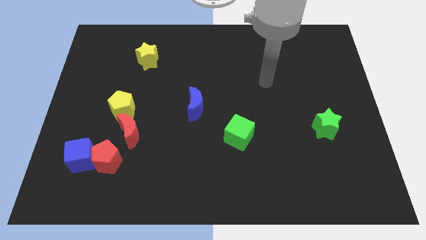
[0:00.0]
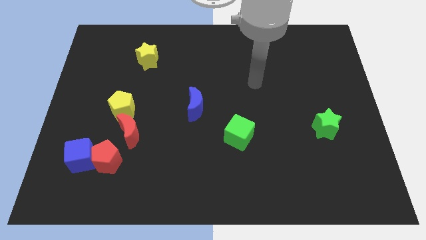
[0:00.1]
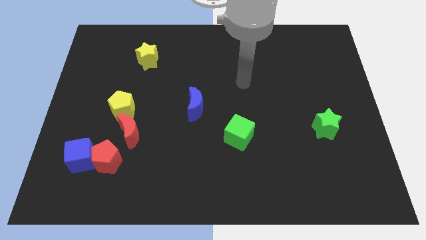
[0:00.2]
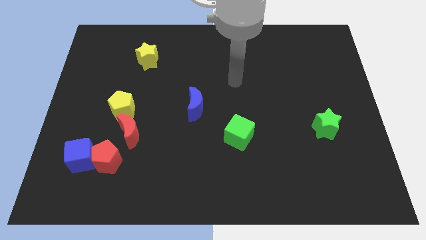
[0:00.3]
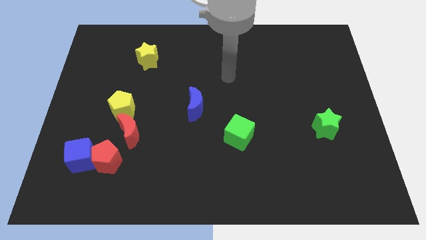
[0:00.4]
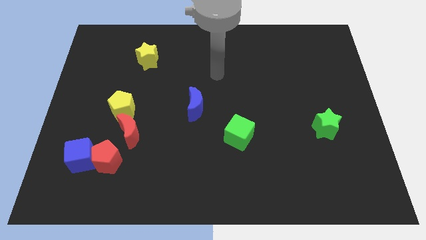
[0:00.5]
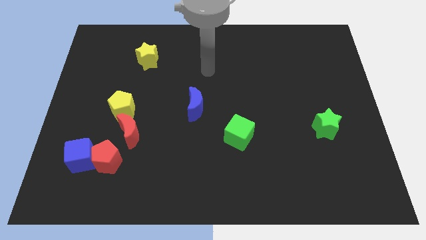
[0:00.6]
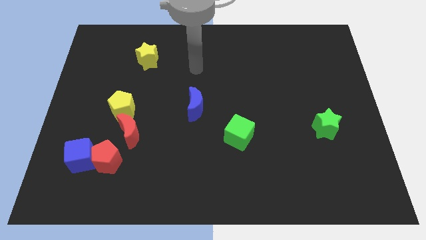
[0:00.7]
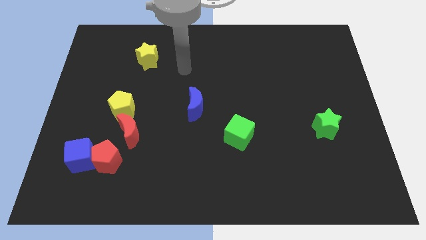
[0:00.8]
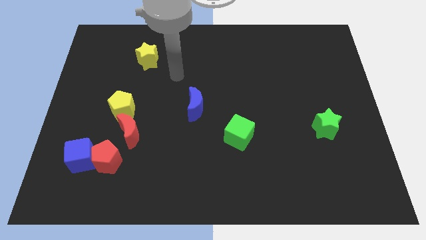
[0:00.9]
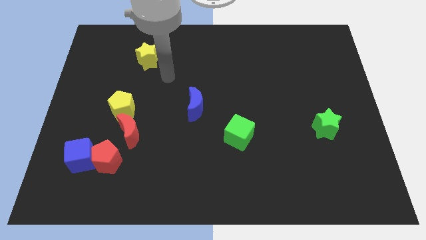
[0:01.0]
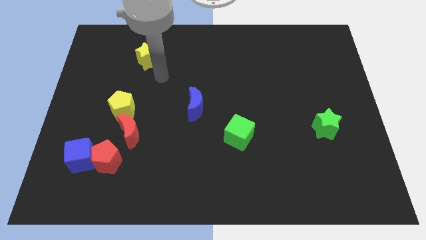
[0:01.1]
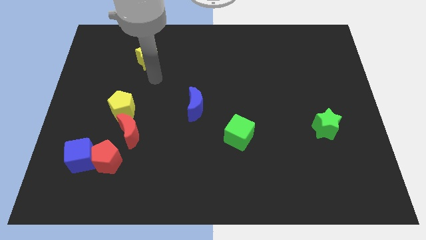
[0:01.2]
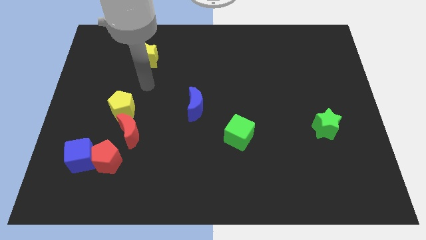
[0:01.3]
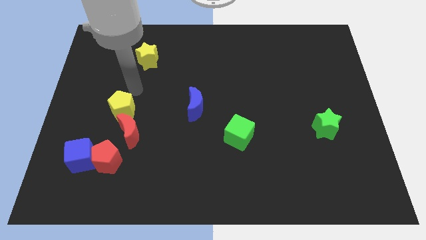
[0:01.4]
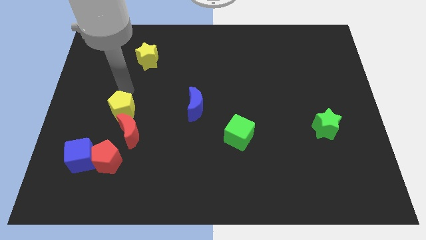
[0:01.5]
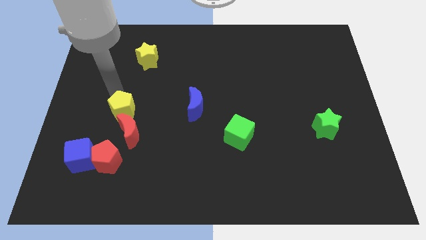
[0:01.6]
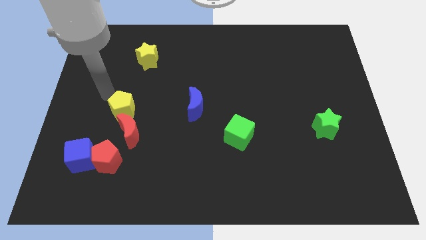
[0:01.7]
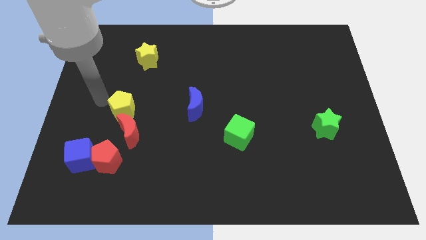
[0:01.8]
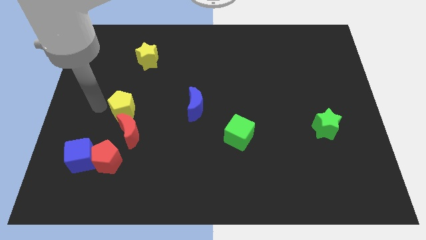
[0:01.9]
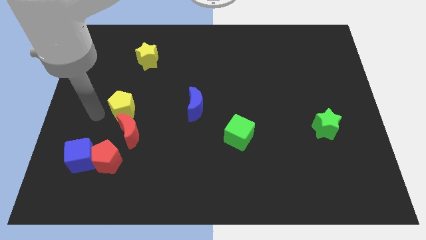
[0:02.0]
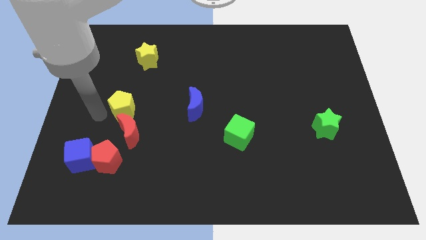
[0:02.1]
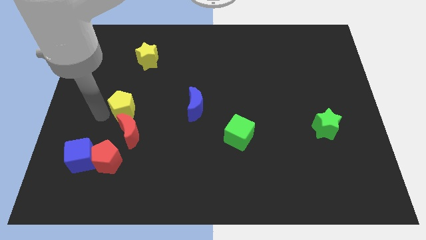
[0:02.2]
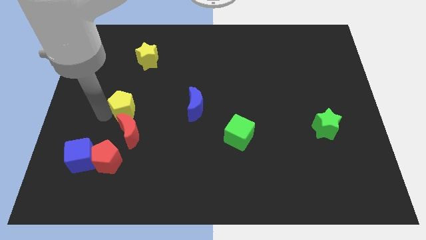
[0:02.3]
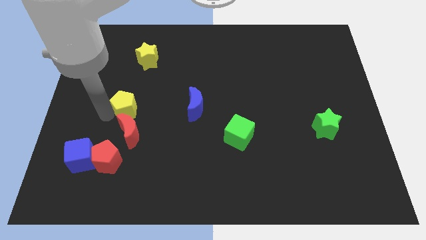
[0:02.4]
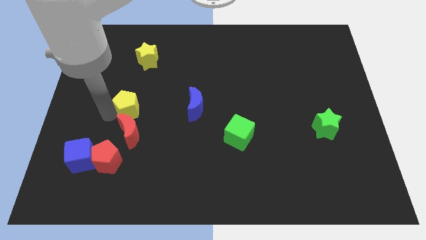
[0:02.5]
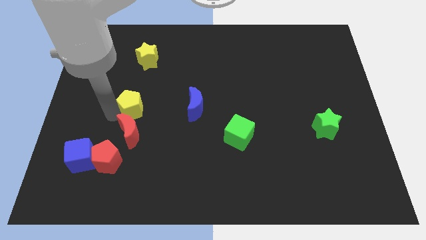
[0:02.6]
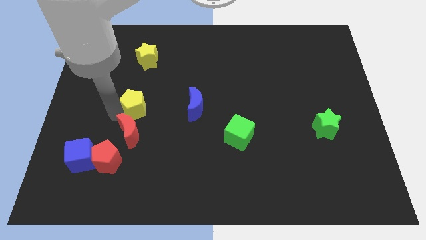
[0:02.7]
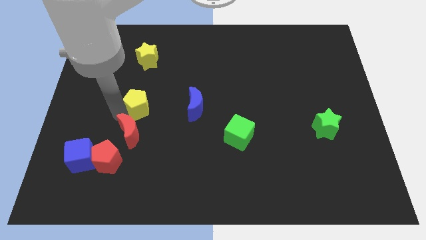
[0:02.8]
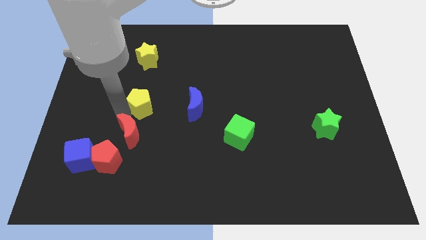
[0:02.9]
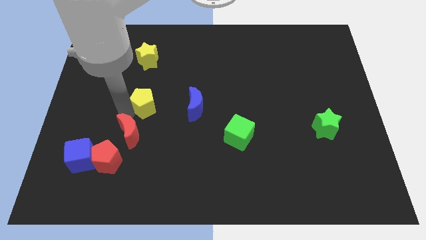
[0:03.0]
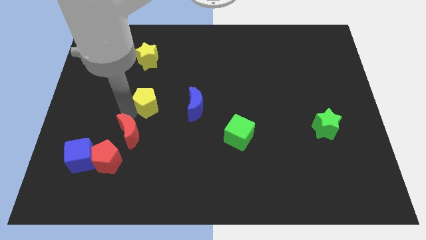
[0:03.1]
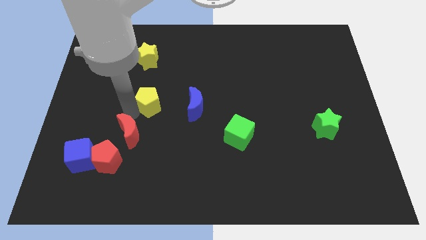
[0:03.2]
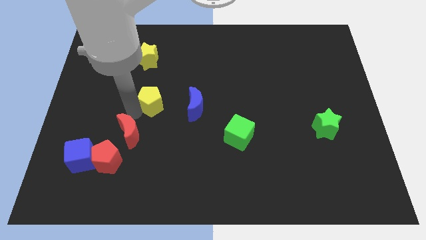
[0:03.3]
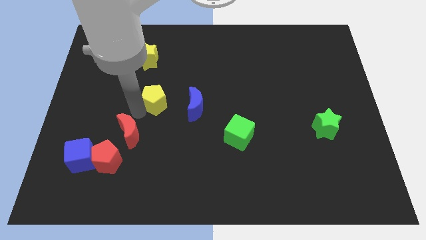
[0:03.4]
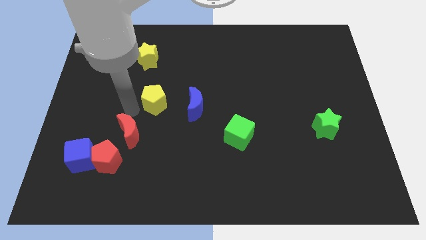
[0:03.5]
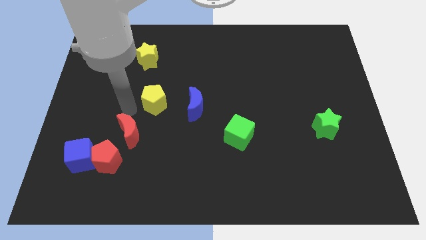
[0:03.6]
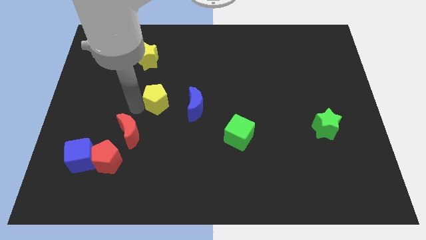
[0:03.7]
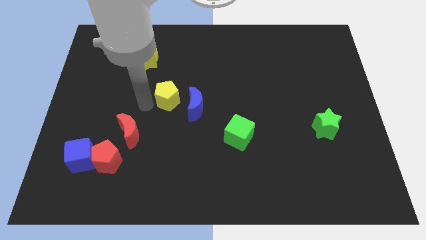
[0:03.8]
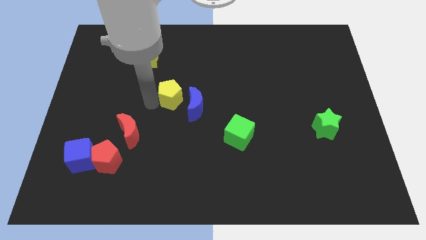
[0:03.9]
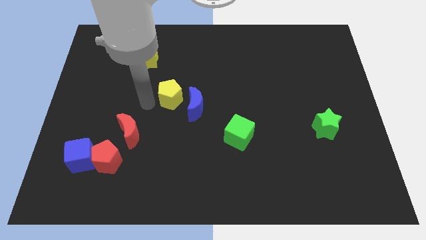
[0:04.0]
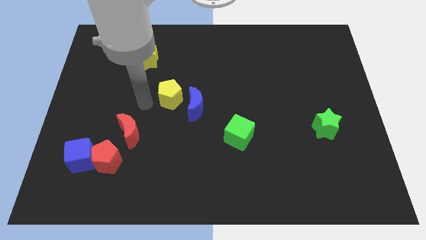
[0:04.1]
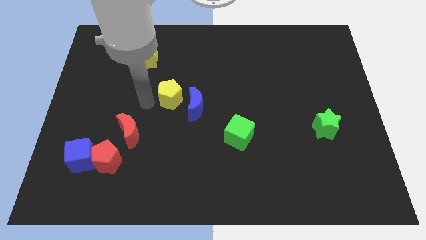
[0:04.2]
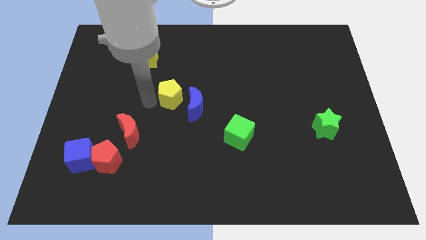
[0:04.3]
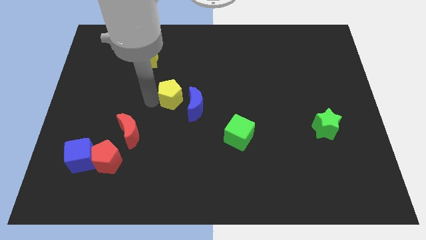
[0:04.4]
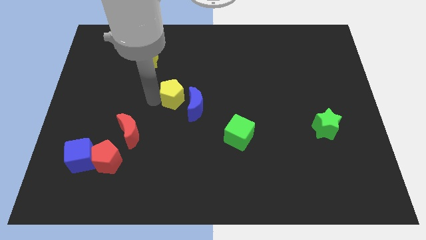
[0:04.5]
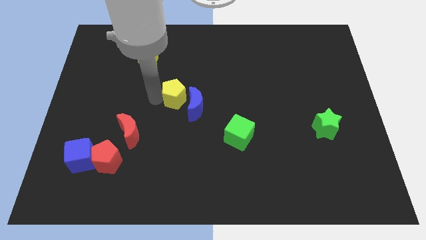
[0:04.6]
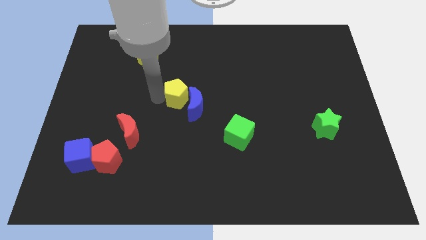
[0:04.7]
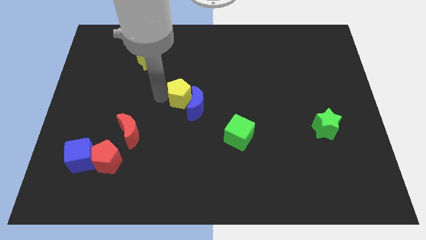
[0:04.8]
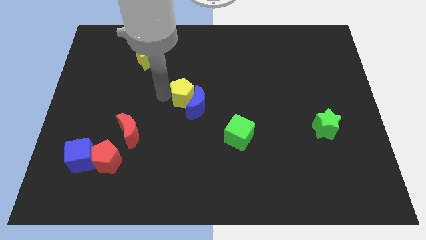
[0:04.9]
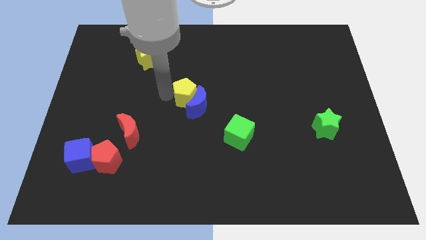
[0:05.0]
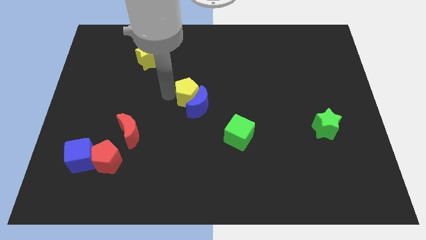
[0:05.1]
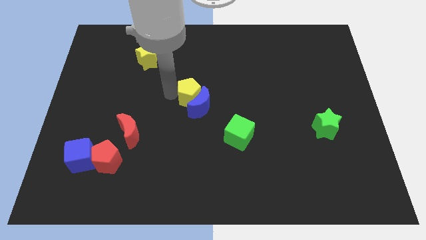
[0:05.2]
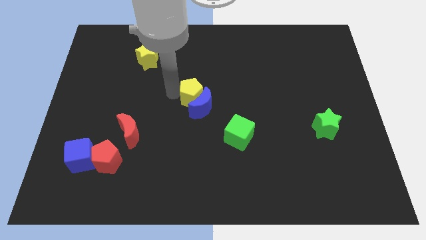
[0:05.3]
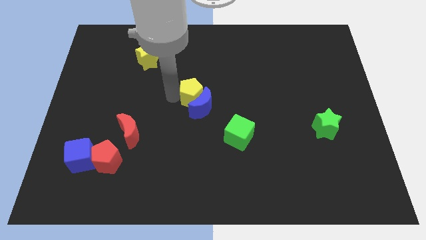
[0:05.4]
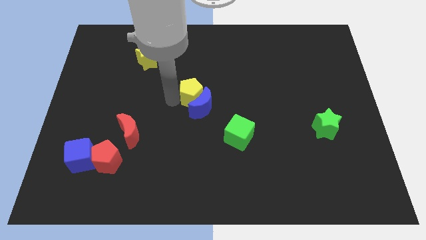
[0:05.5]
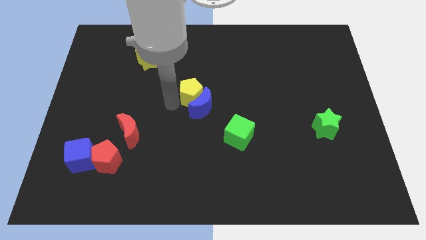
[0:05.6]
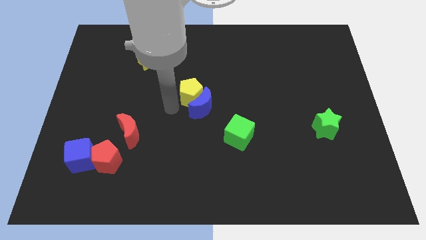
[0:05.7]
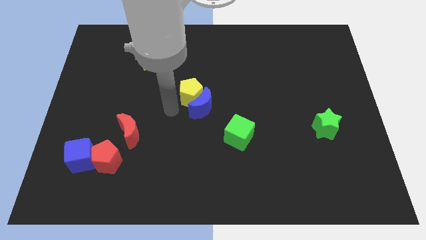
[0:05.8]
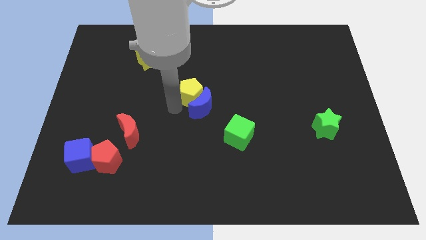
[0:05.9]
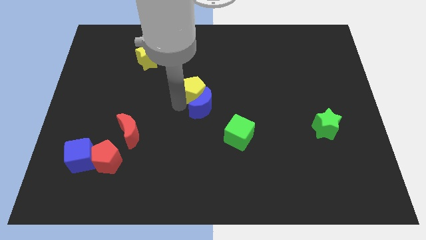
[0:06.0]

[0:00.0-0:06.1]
slide the yellow pentagon diagonally up and to the right of the blue moon

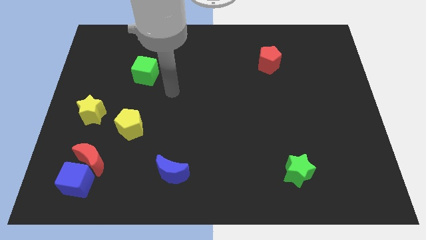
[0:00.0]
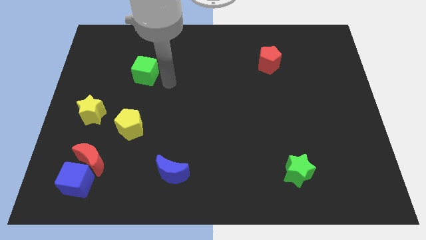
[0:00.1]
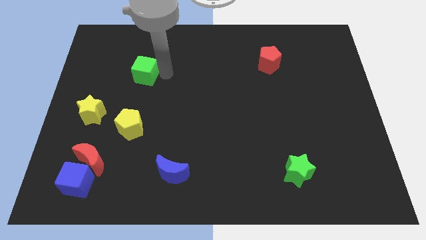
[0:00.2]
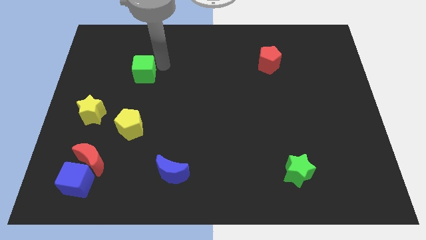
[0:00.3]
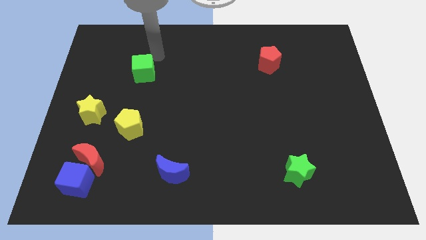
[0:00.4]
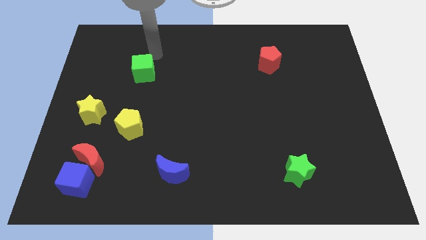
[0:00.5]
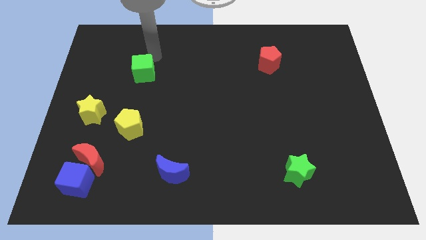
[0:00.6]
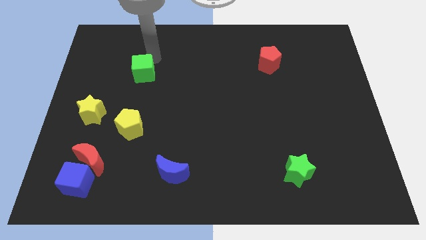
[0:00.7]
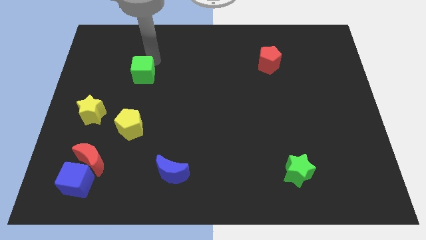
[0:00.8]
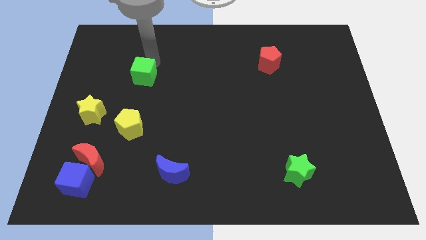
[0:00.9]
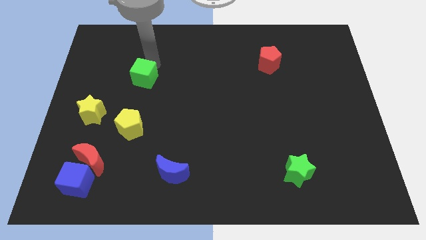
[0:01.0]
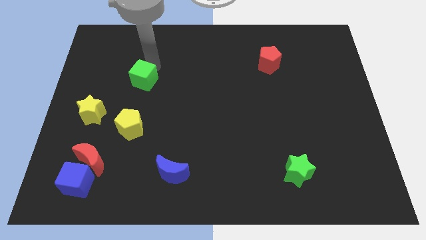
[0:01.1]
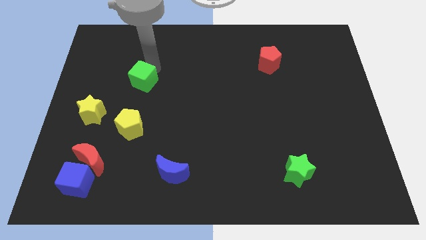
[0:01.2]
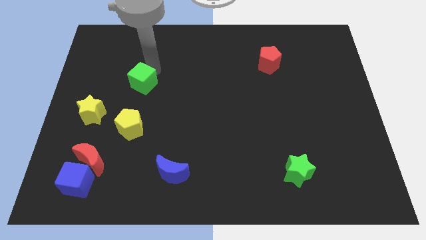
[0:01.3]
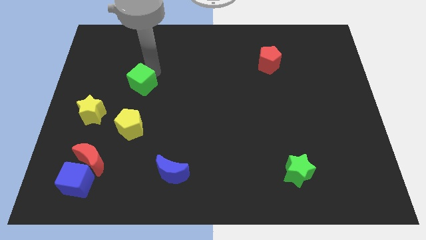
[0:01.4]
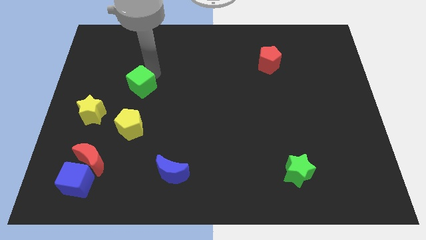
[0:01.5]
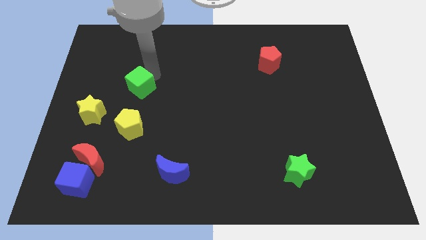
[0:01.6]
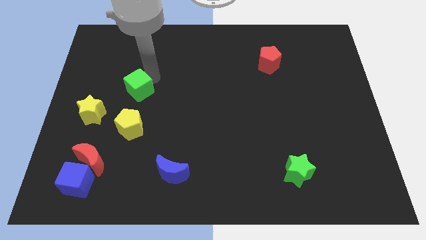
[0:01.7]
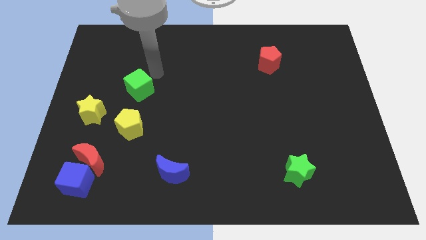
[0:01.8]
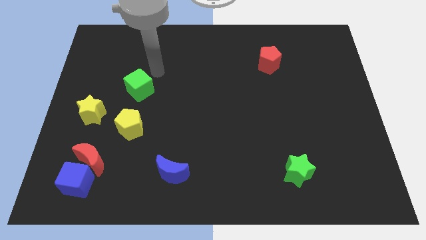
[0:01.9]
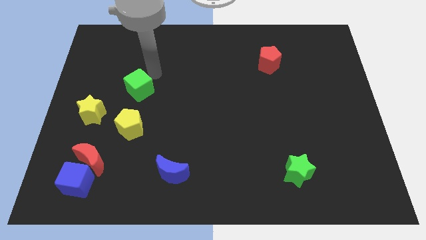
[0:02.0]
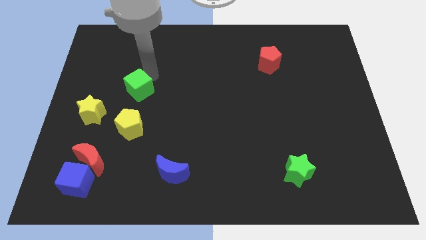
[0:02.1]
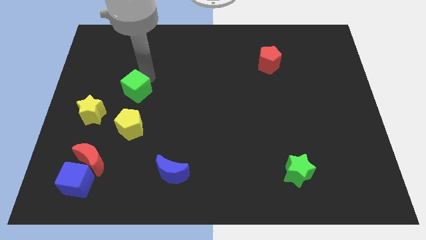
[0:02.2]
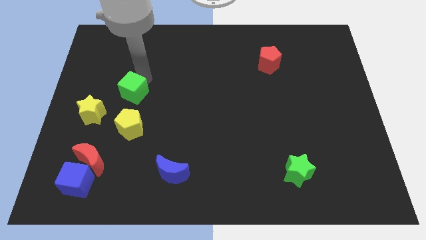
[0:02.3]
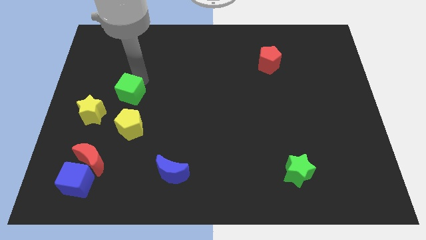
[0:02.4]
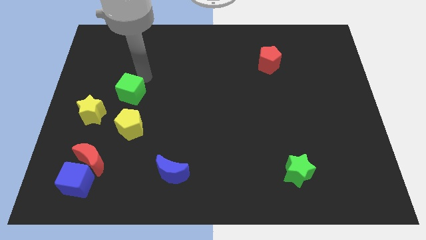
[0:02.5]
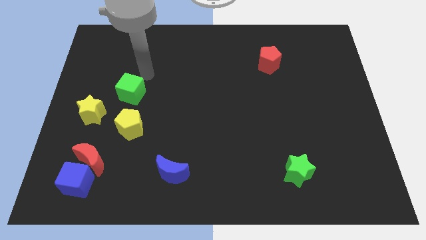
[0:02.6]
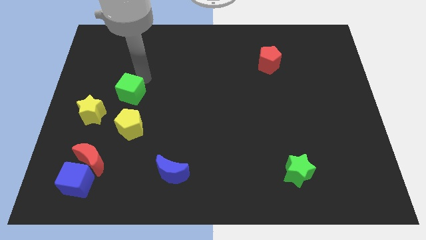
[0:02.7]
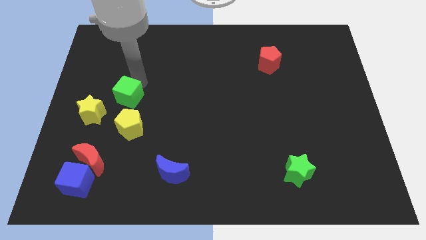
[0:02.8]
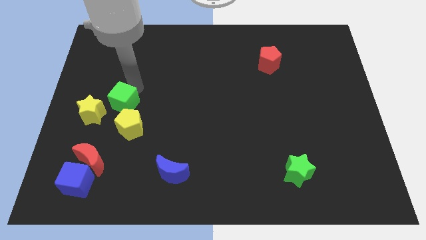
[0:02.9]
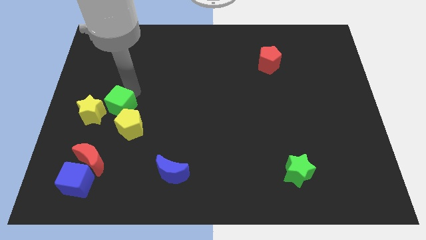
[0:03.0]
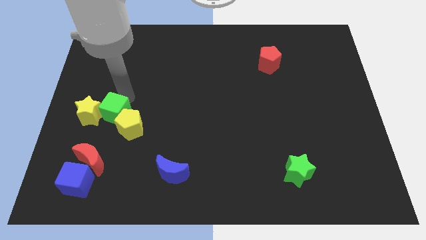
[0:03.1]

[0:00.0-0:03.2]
slide the green cube diagonally down and to the right of the yellow star
